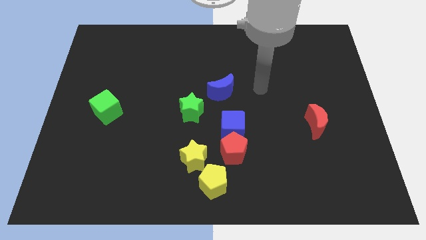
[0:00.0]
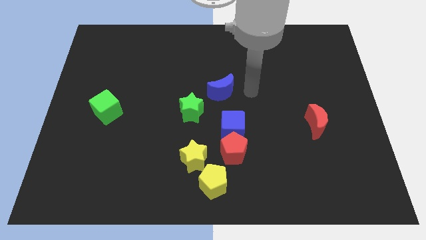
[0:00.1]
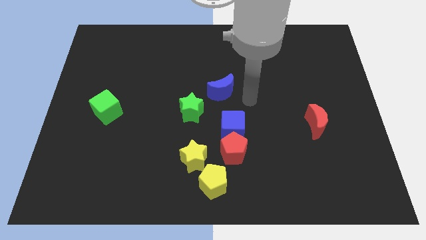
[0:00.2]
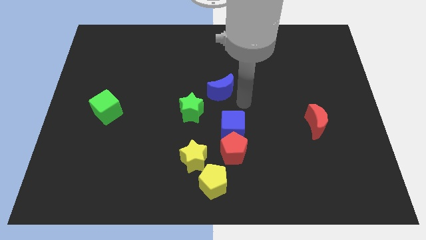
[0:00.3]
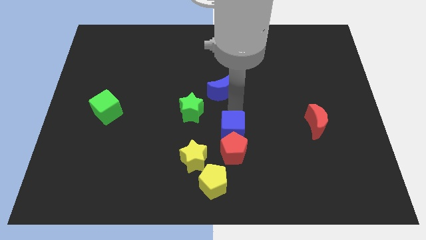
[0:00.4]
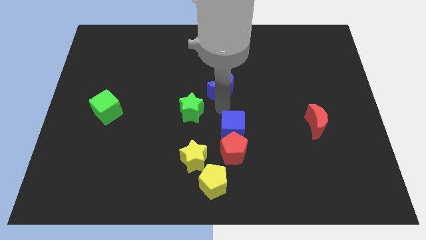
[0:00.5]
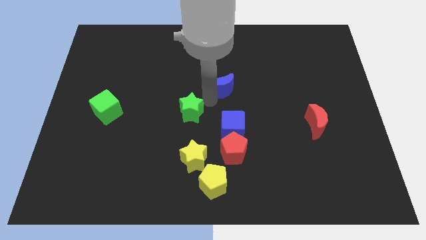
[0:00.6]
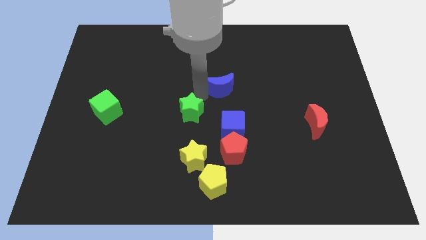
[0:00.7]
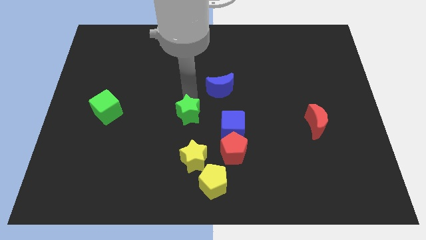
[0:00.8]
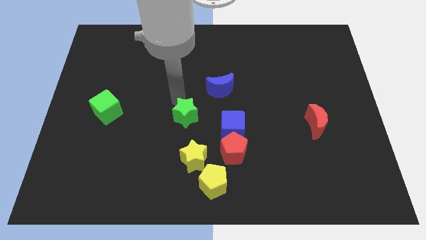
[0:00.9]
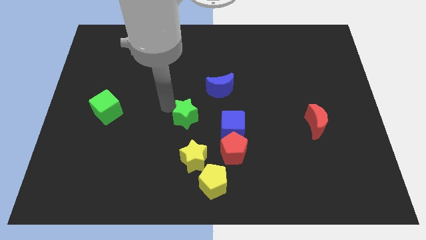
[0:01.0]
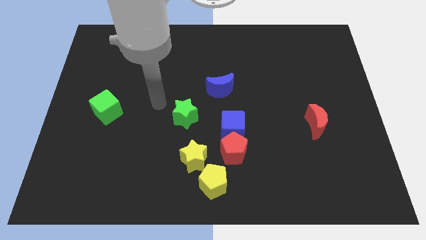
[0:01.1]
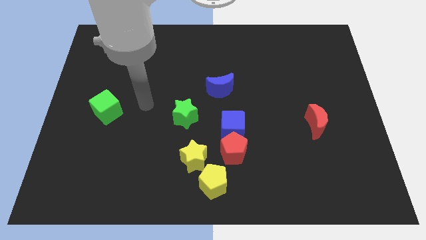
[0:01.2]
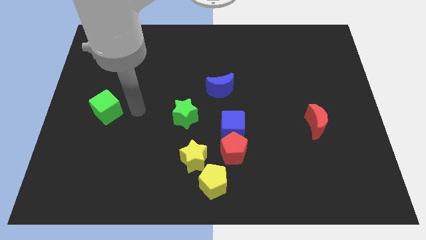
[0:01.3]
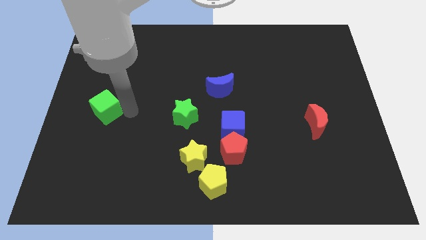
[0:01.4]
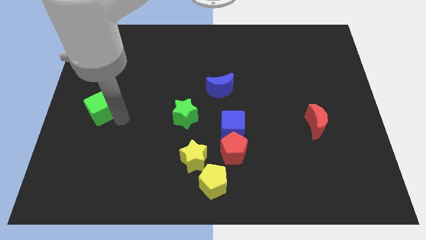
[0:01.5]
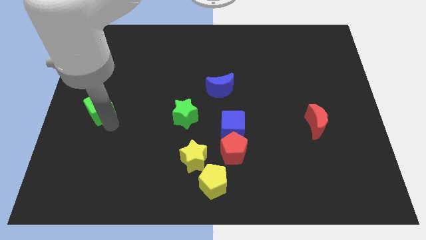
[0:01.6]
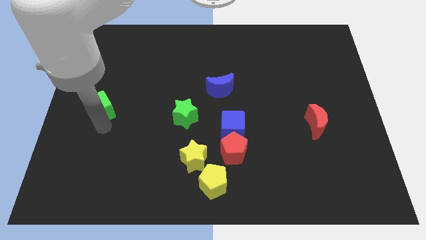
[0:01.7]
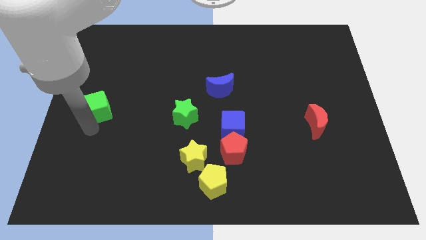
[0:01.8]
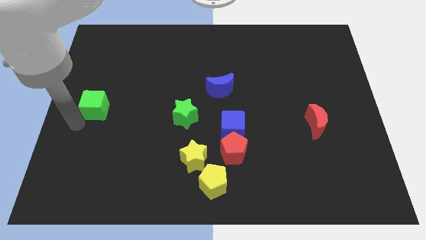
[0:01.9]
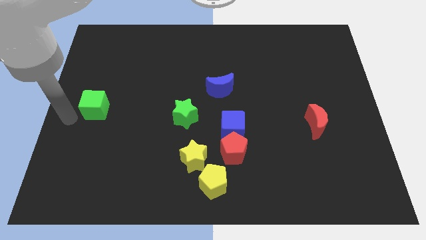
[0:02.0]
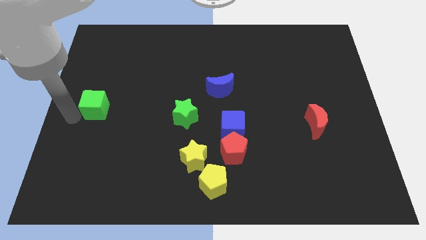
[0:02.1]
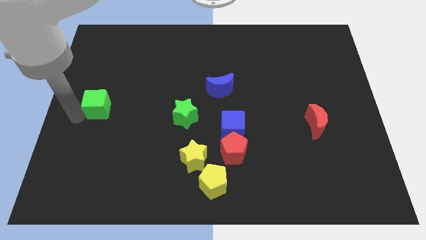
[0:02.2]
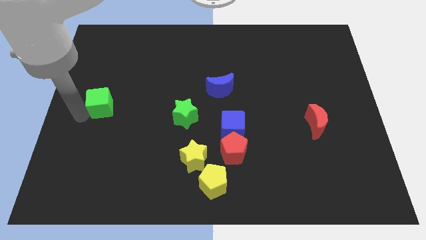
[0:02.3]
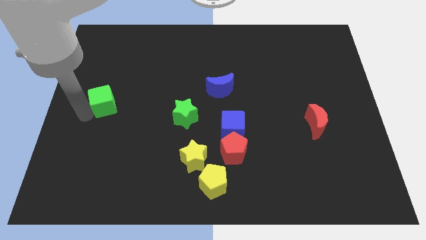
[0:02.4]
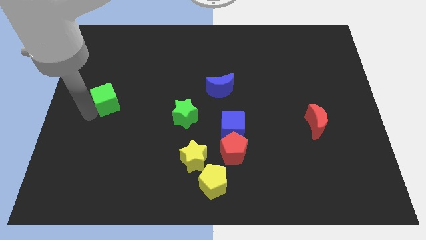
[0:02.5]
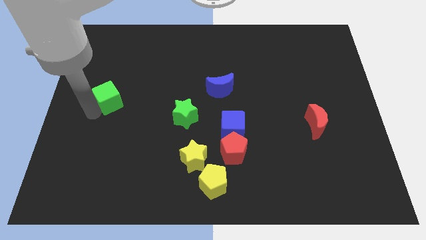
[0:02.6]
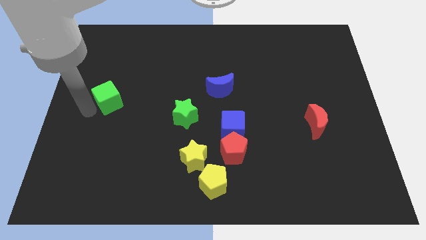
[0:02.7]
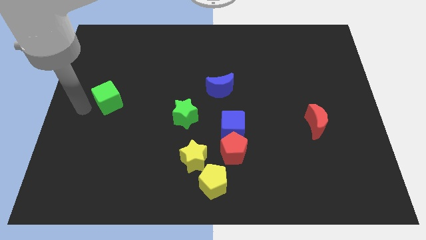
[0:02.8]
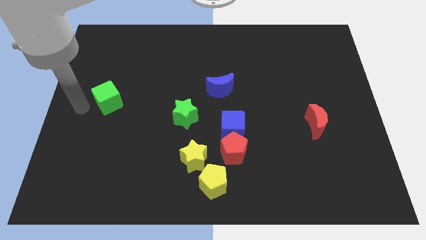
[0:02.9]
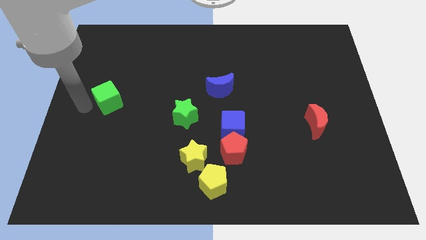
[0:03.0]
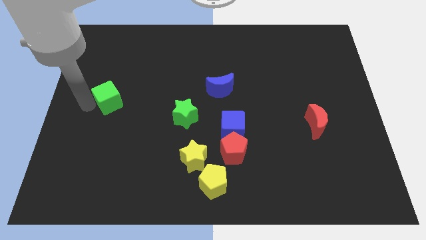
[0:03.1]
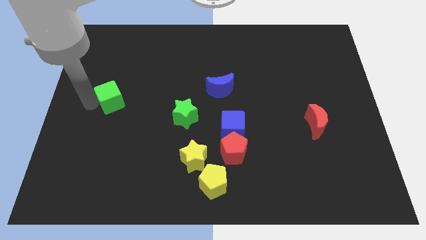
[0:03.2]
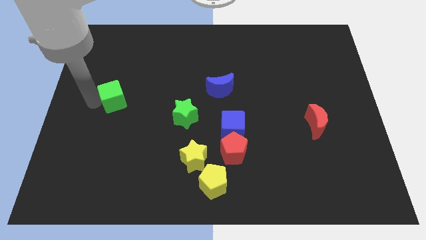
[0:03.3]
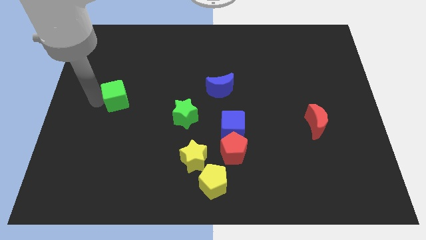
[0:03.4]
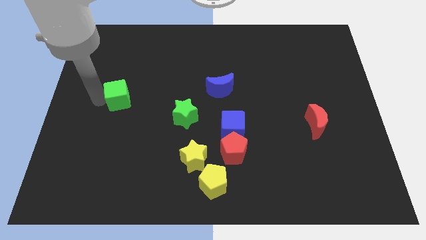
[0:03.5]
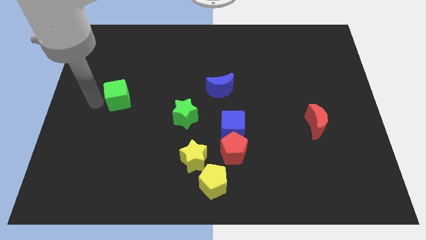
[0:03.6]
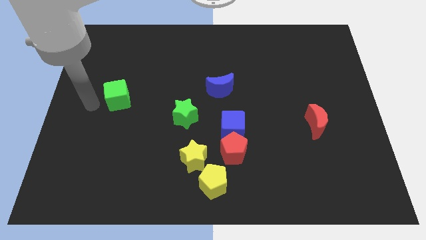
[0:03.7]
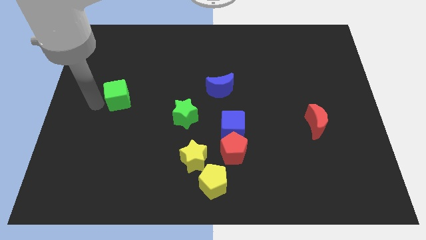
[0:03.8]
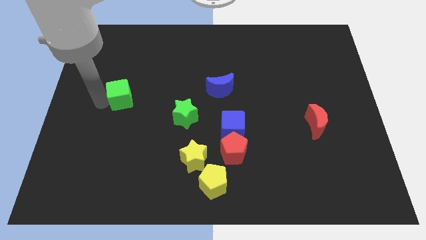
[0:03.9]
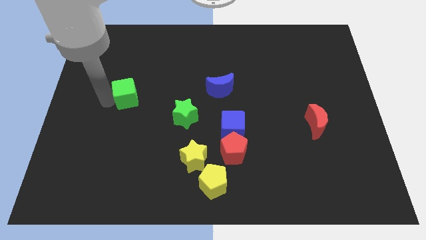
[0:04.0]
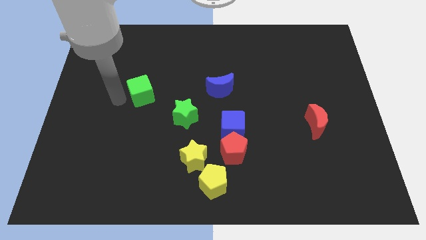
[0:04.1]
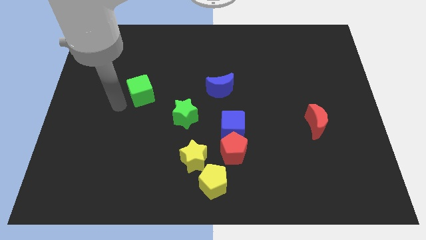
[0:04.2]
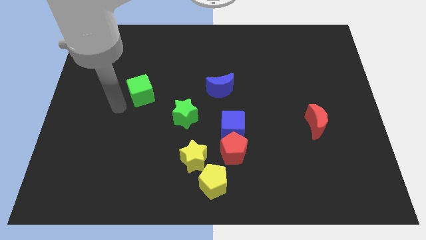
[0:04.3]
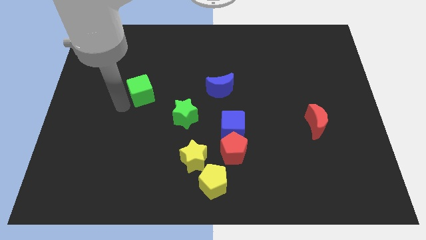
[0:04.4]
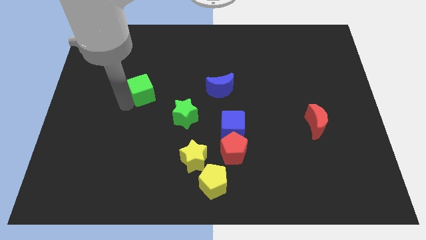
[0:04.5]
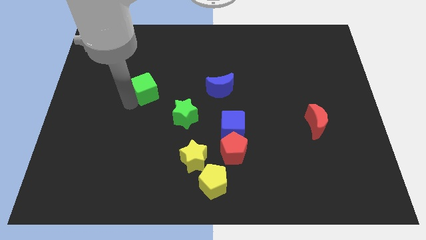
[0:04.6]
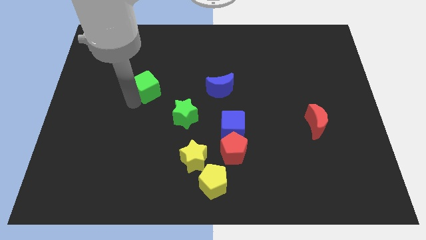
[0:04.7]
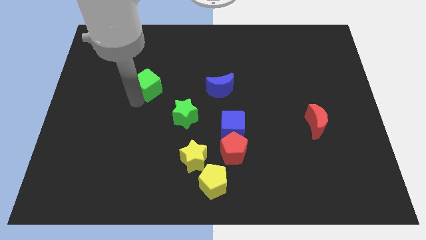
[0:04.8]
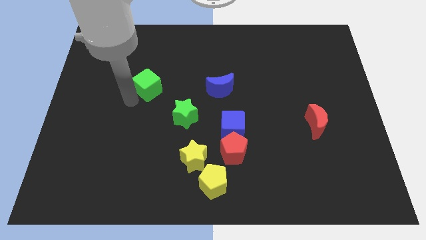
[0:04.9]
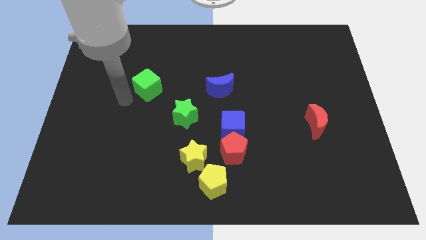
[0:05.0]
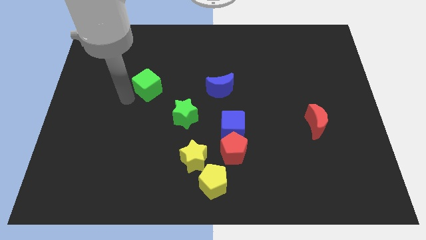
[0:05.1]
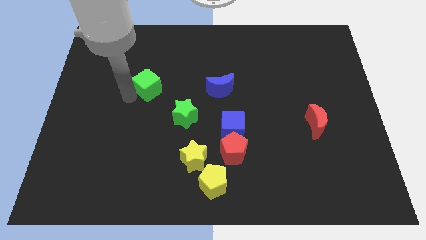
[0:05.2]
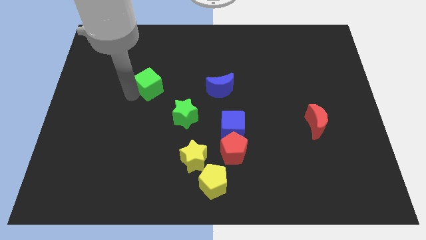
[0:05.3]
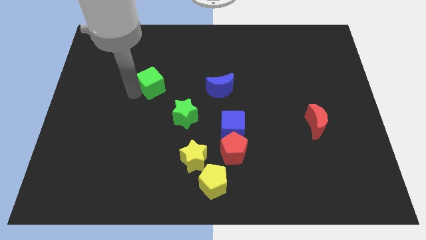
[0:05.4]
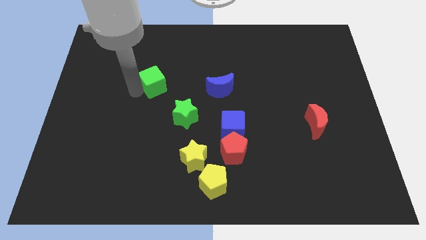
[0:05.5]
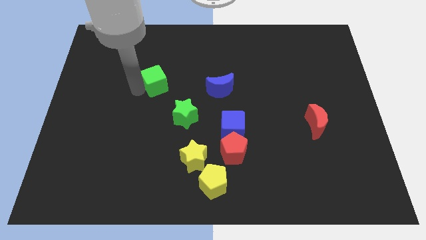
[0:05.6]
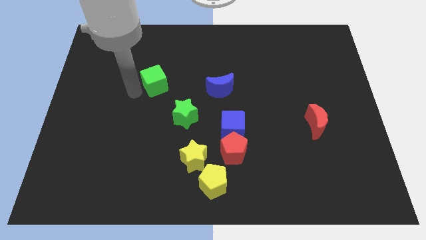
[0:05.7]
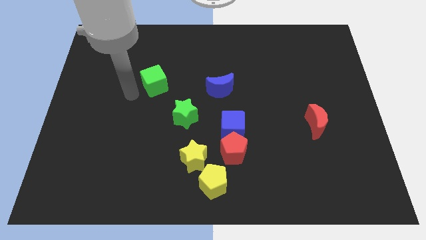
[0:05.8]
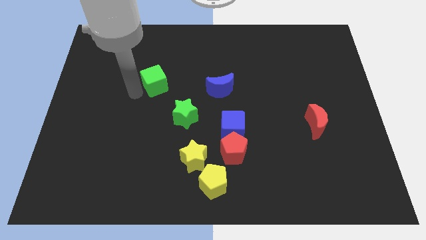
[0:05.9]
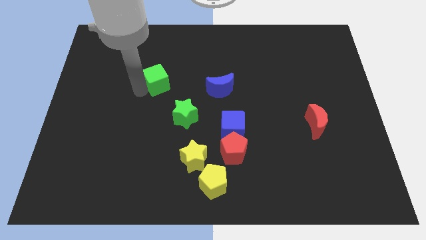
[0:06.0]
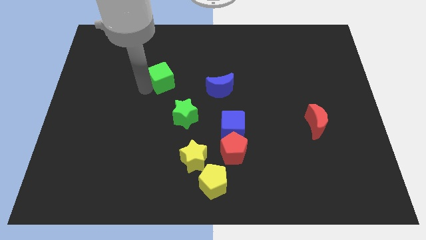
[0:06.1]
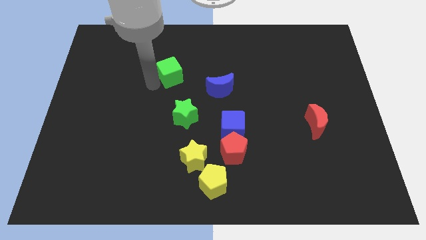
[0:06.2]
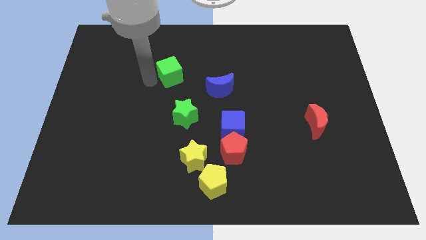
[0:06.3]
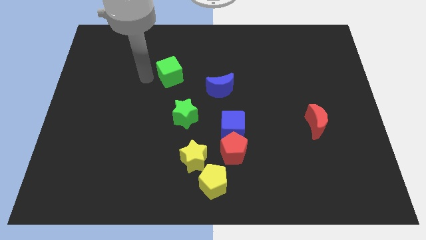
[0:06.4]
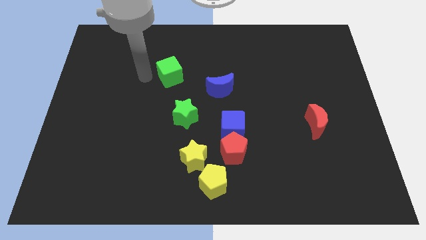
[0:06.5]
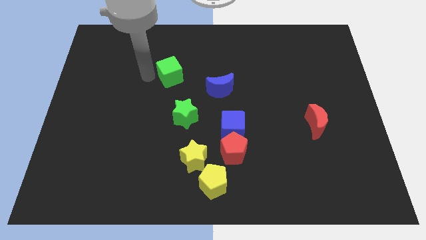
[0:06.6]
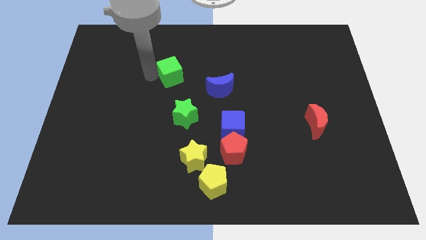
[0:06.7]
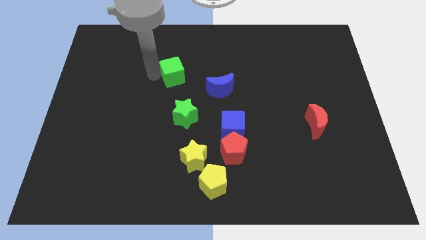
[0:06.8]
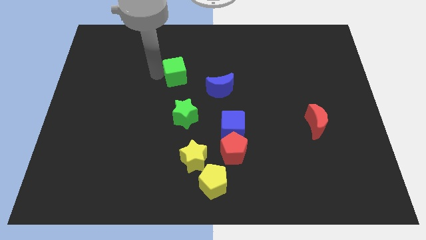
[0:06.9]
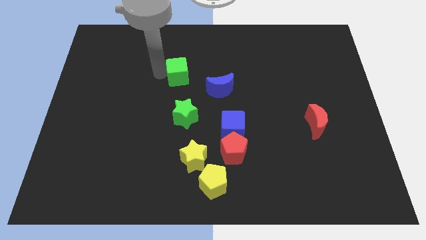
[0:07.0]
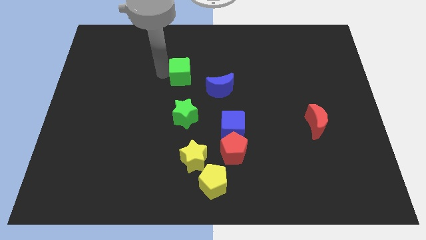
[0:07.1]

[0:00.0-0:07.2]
move the green cube to the top left of the blue moon
